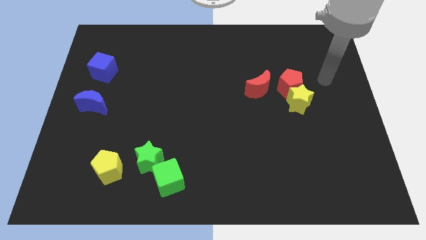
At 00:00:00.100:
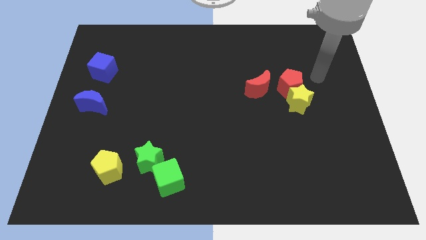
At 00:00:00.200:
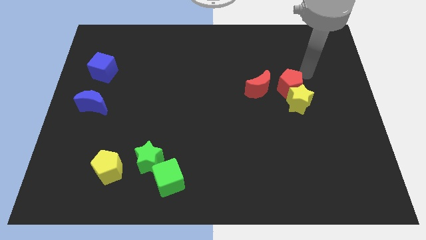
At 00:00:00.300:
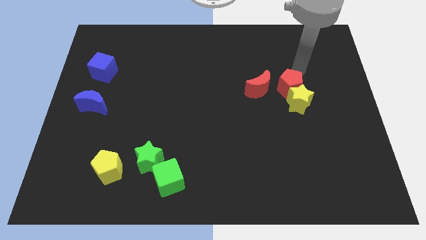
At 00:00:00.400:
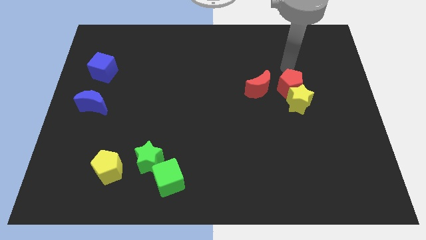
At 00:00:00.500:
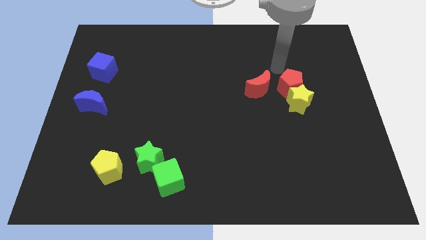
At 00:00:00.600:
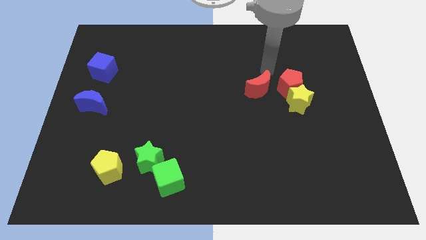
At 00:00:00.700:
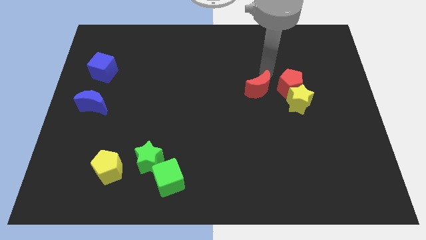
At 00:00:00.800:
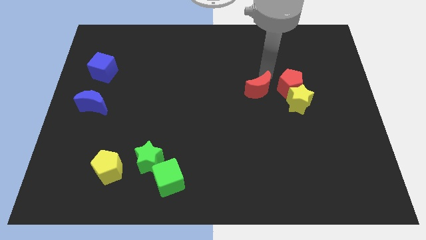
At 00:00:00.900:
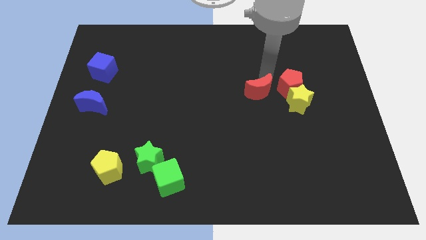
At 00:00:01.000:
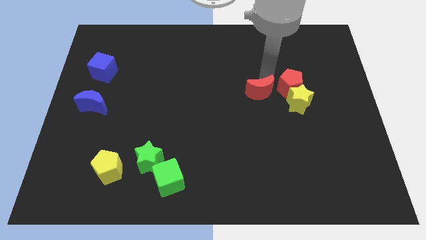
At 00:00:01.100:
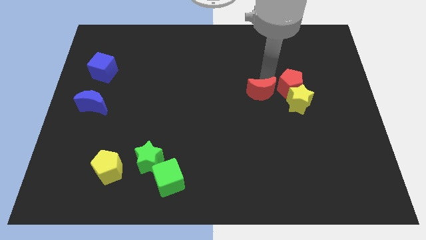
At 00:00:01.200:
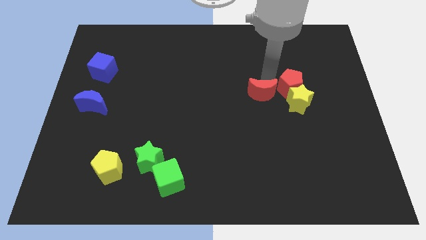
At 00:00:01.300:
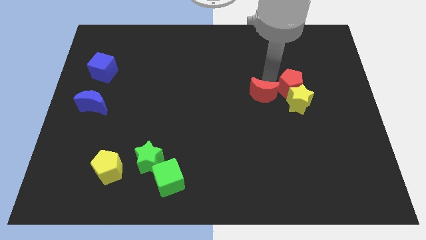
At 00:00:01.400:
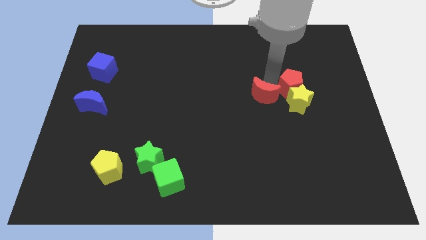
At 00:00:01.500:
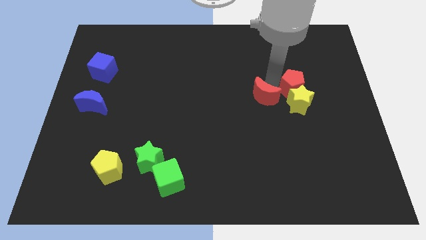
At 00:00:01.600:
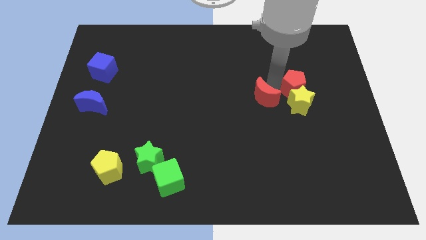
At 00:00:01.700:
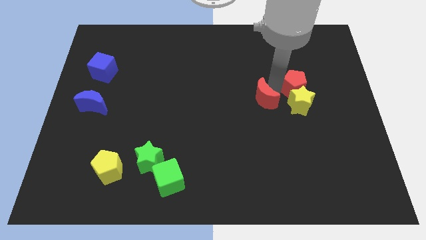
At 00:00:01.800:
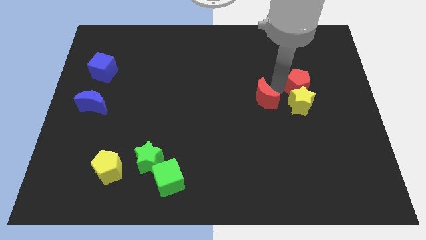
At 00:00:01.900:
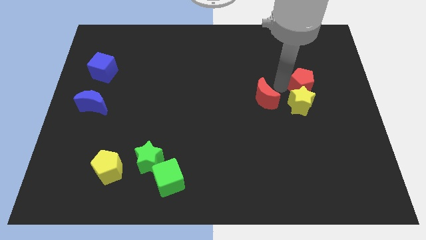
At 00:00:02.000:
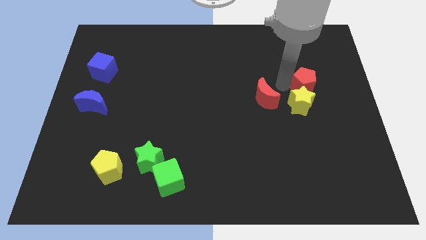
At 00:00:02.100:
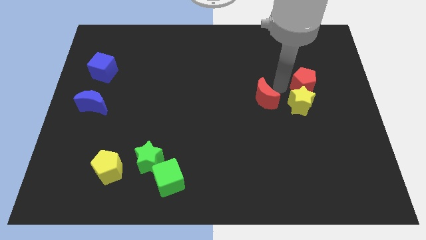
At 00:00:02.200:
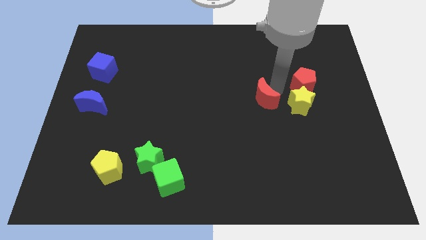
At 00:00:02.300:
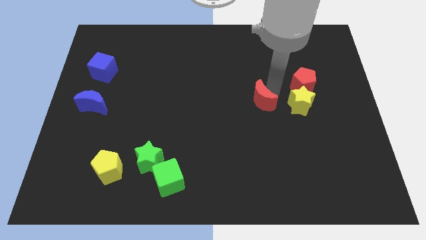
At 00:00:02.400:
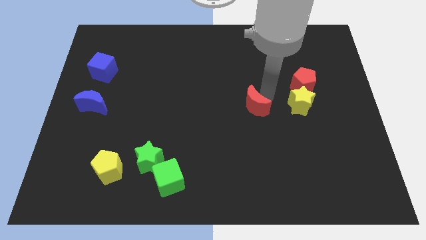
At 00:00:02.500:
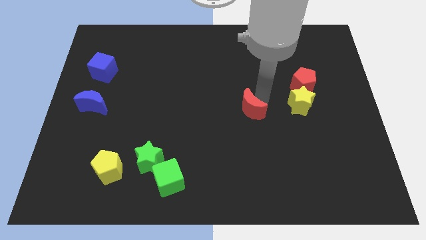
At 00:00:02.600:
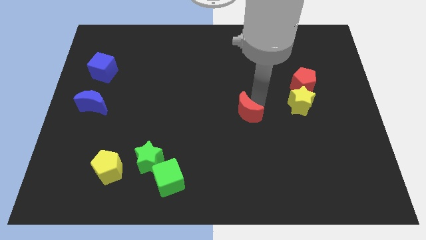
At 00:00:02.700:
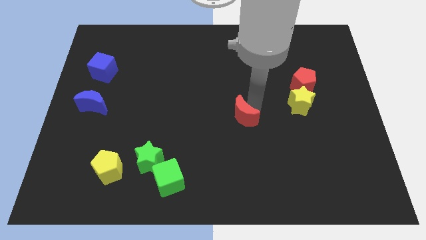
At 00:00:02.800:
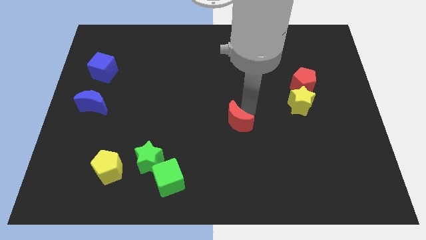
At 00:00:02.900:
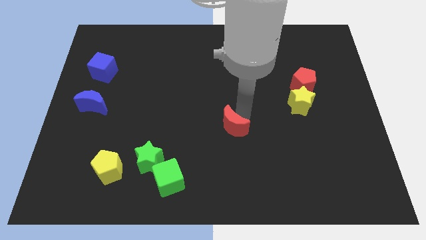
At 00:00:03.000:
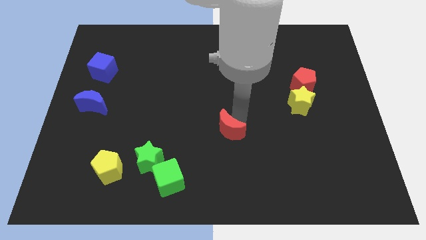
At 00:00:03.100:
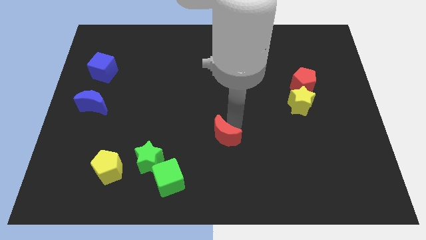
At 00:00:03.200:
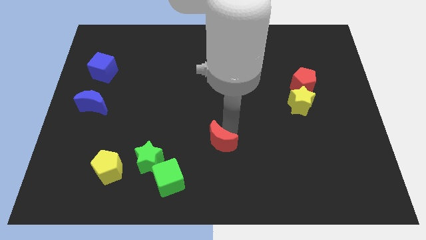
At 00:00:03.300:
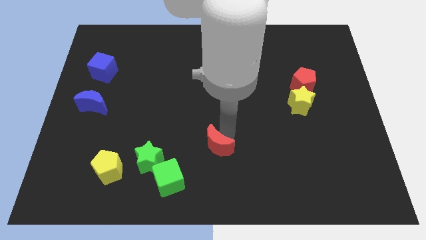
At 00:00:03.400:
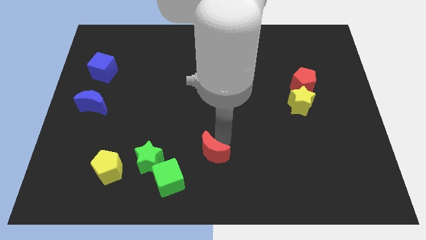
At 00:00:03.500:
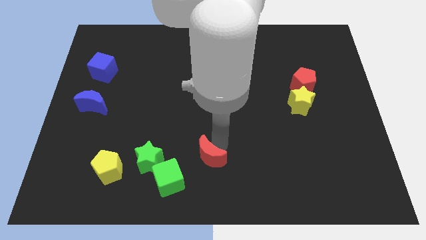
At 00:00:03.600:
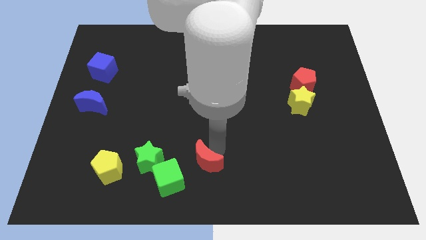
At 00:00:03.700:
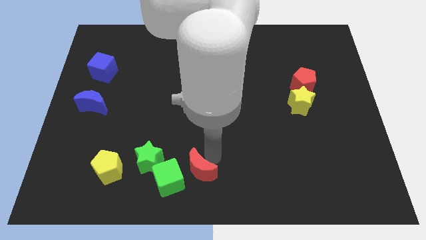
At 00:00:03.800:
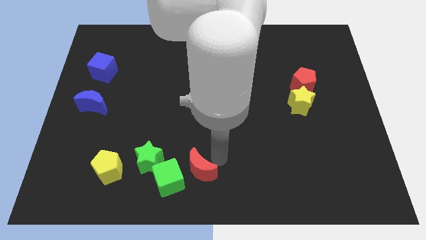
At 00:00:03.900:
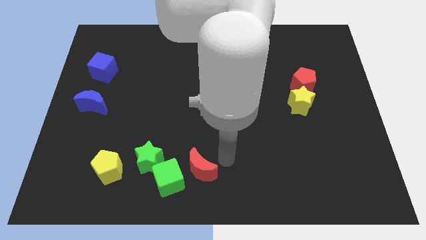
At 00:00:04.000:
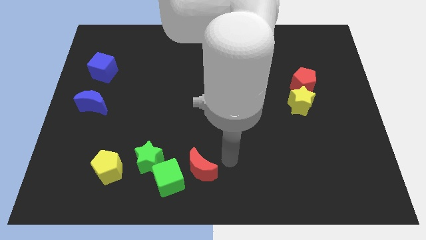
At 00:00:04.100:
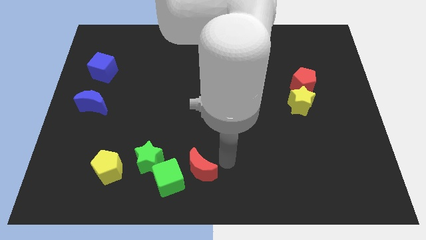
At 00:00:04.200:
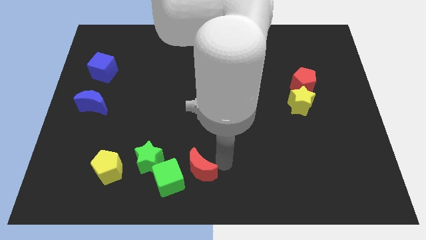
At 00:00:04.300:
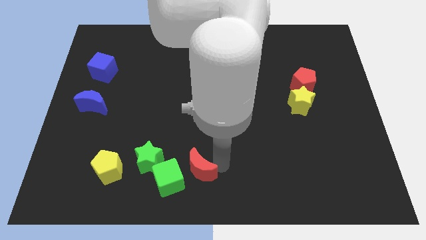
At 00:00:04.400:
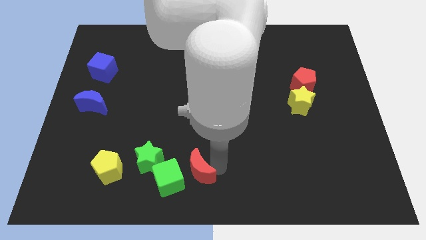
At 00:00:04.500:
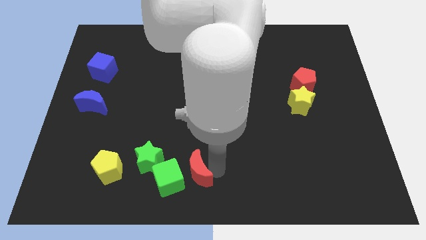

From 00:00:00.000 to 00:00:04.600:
slide the red moon next to the green cube

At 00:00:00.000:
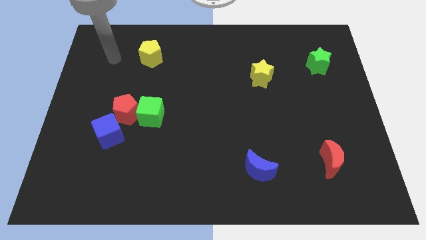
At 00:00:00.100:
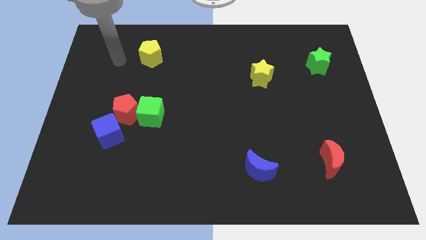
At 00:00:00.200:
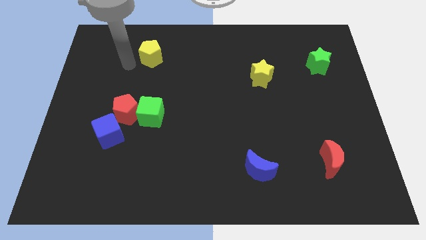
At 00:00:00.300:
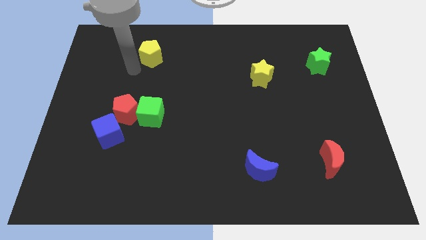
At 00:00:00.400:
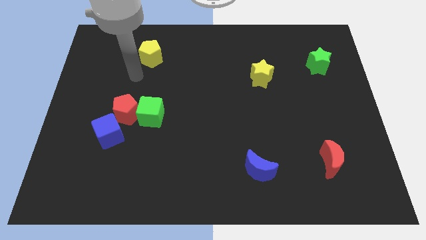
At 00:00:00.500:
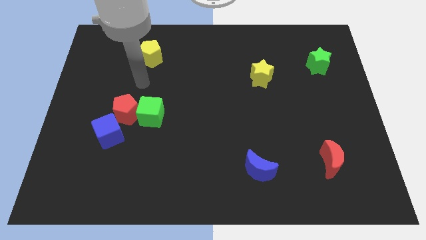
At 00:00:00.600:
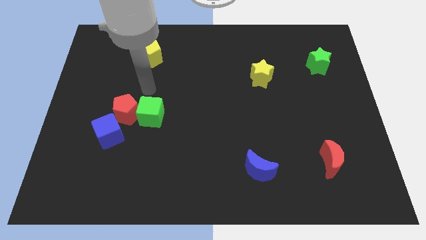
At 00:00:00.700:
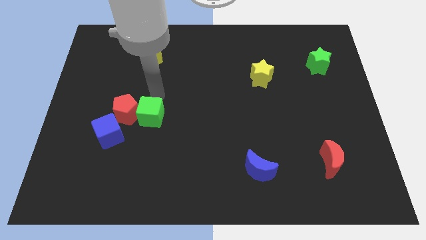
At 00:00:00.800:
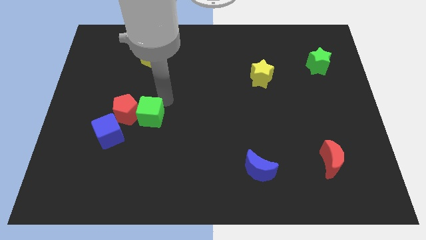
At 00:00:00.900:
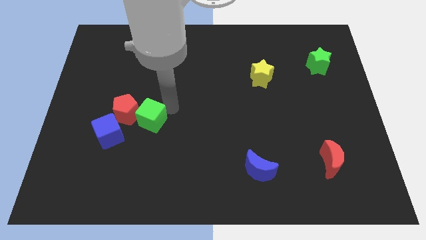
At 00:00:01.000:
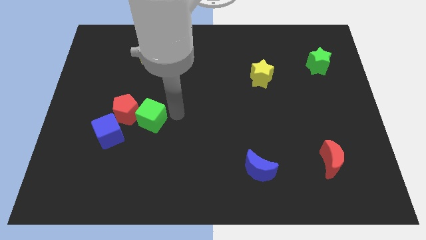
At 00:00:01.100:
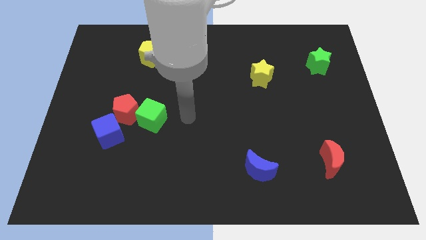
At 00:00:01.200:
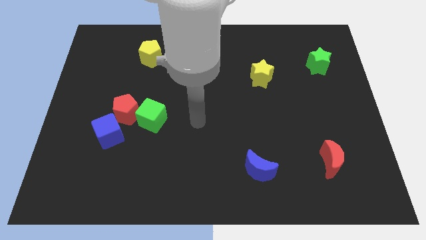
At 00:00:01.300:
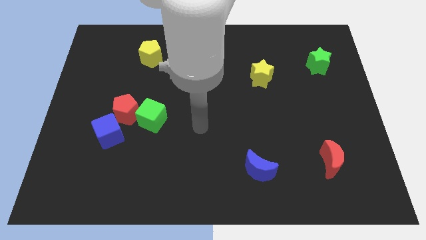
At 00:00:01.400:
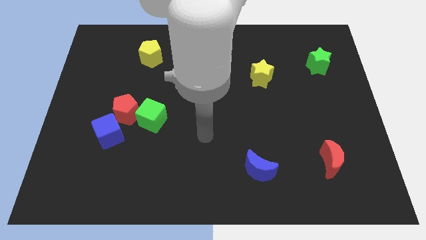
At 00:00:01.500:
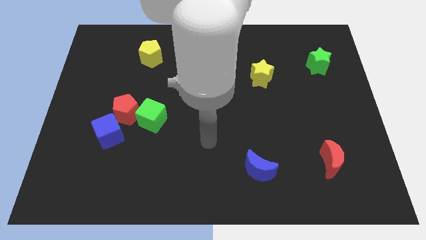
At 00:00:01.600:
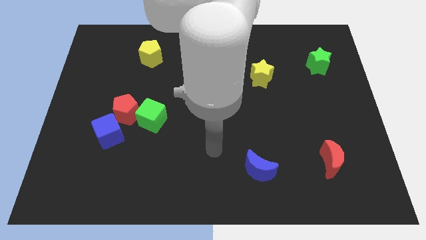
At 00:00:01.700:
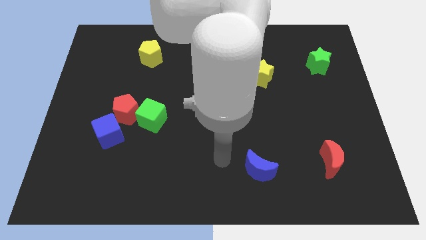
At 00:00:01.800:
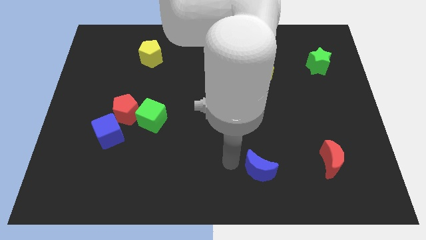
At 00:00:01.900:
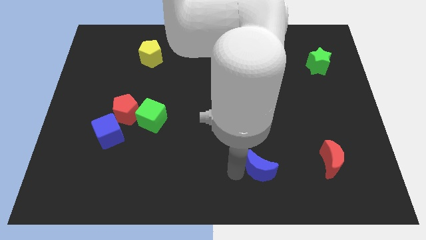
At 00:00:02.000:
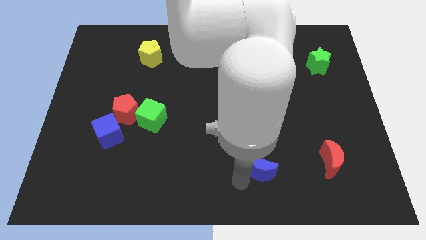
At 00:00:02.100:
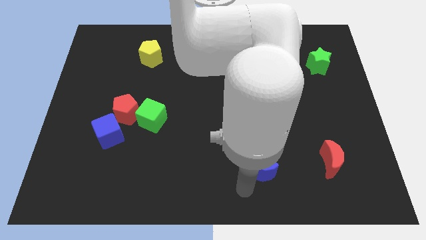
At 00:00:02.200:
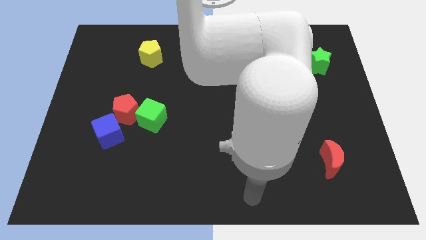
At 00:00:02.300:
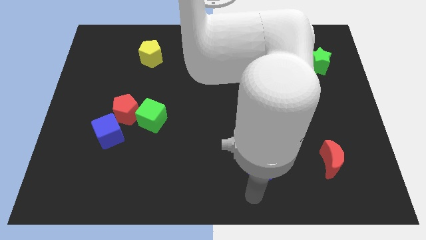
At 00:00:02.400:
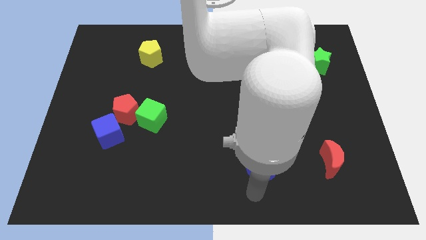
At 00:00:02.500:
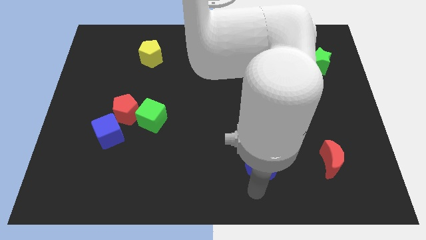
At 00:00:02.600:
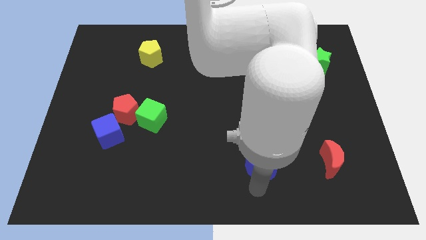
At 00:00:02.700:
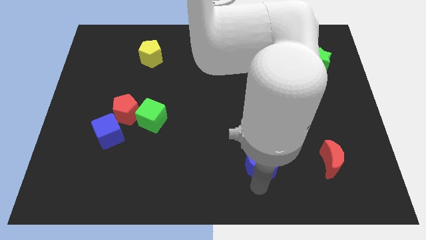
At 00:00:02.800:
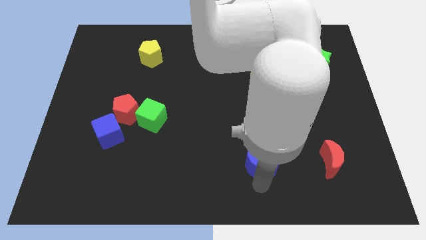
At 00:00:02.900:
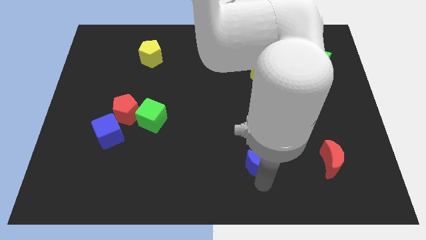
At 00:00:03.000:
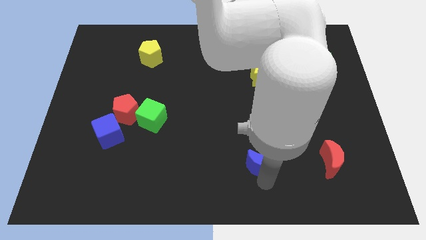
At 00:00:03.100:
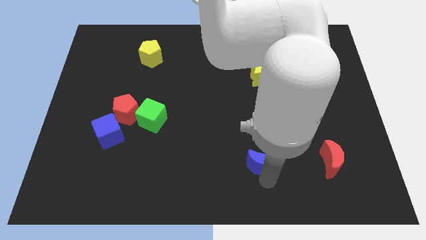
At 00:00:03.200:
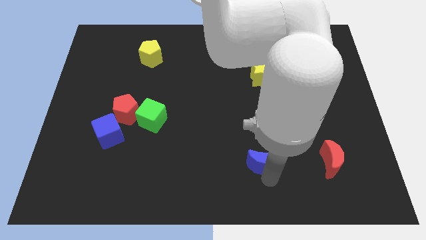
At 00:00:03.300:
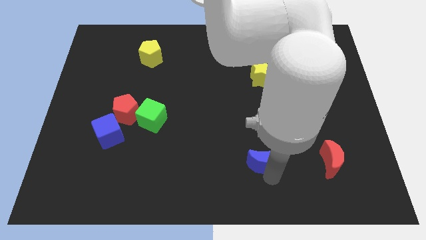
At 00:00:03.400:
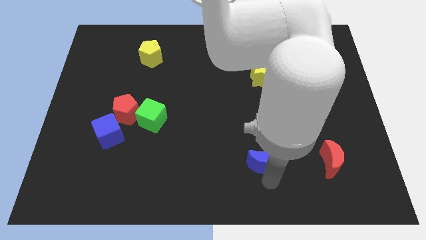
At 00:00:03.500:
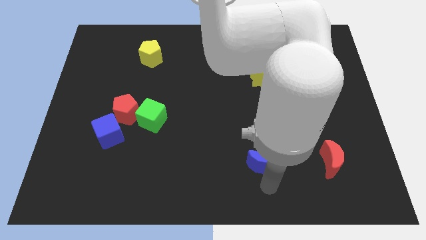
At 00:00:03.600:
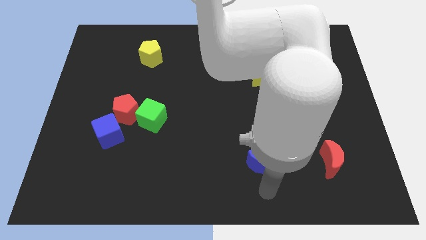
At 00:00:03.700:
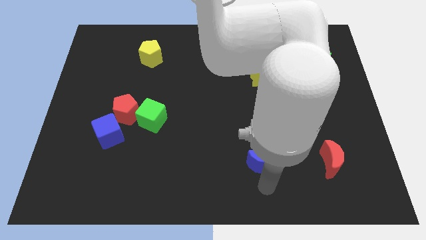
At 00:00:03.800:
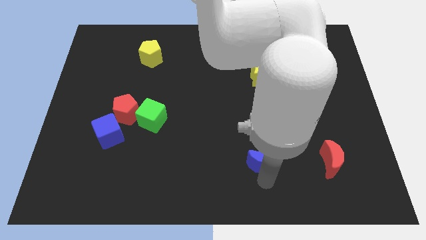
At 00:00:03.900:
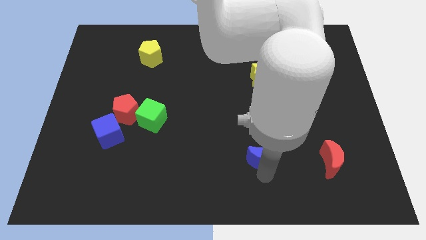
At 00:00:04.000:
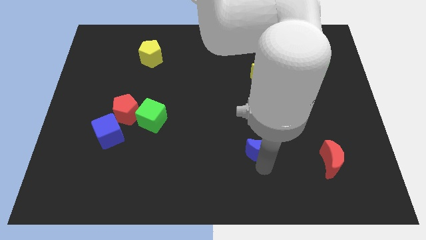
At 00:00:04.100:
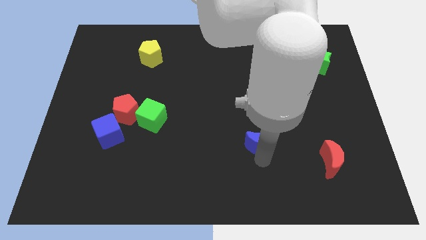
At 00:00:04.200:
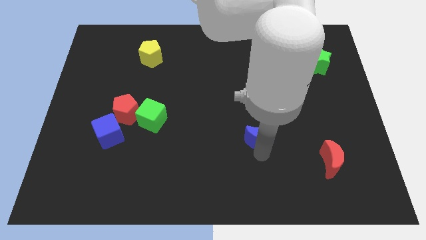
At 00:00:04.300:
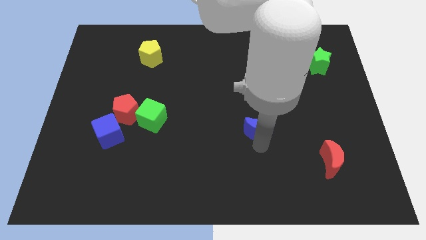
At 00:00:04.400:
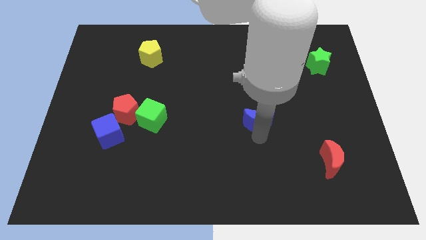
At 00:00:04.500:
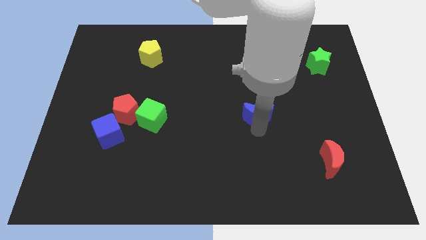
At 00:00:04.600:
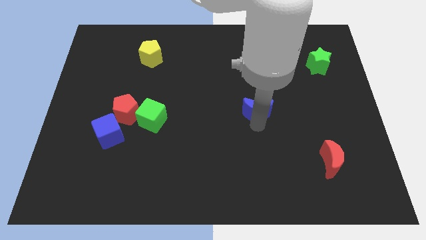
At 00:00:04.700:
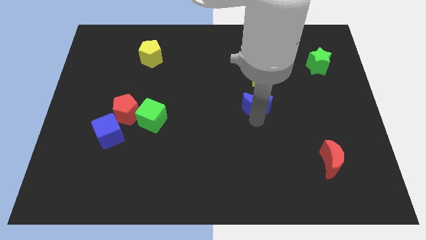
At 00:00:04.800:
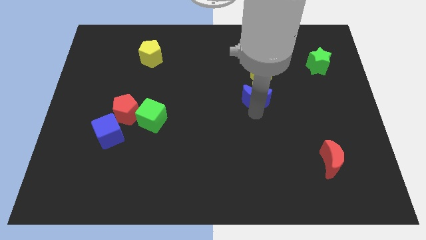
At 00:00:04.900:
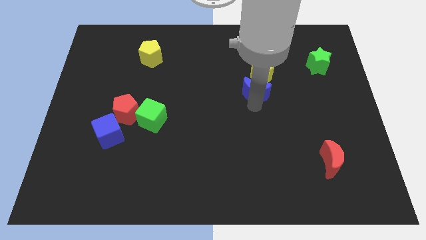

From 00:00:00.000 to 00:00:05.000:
put the blue moon towards the yellow star
